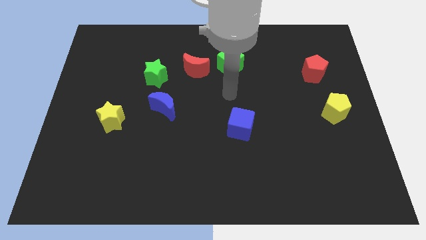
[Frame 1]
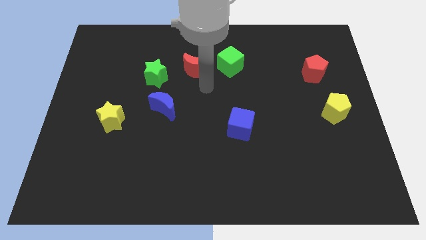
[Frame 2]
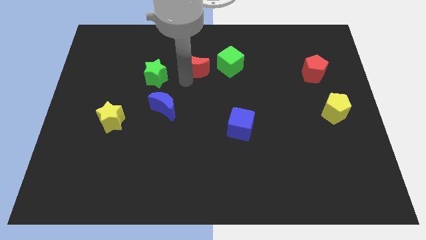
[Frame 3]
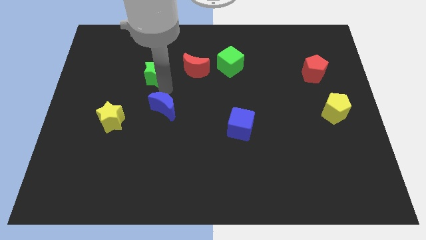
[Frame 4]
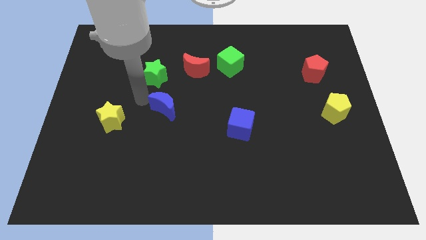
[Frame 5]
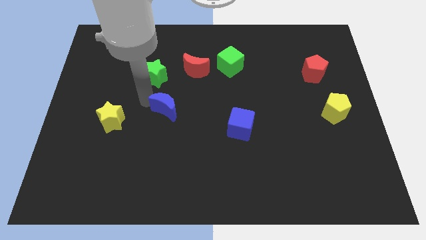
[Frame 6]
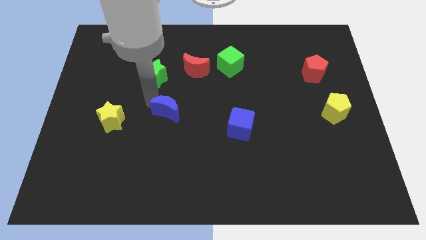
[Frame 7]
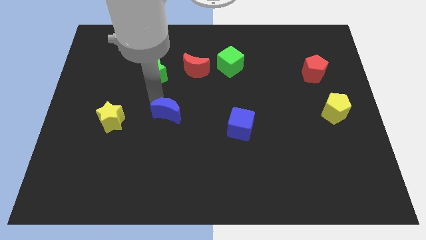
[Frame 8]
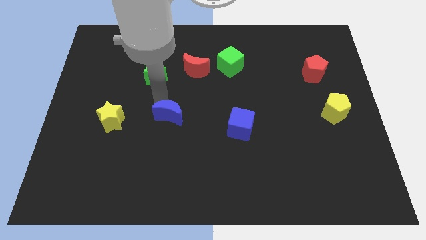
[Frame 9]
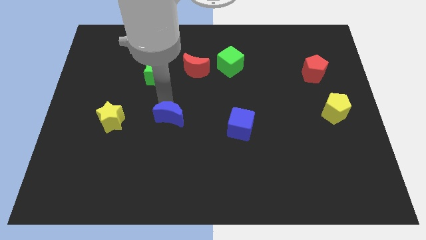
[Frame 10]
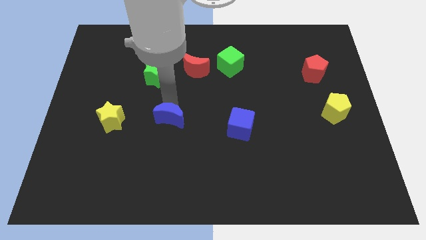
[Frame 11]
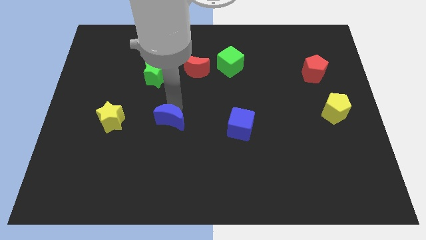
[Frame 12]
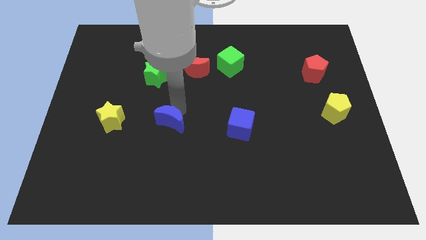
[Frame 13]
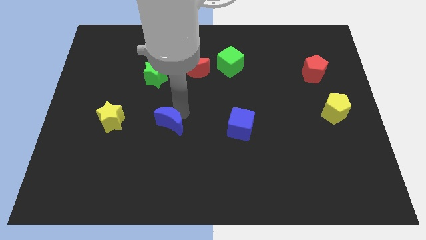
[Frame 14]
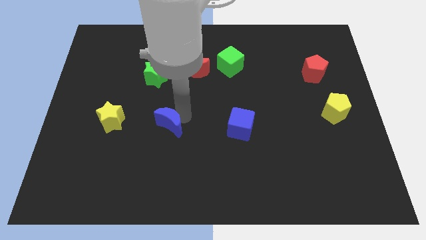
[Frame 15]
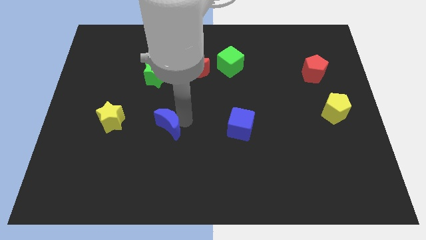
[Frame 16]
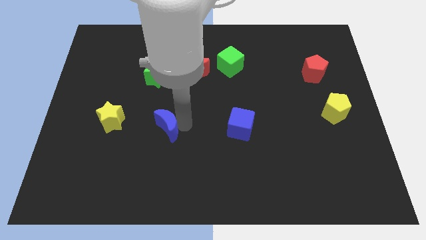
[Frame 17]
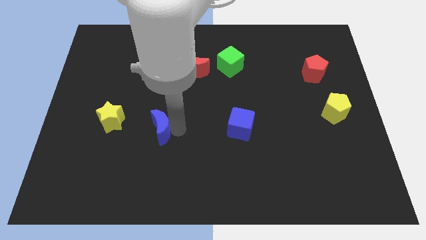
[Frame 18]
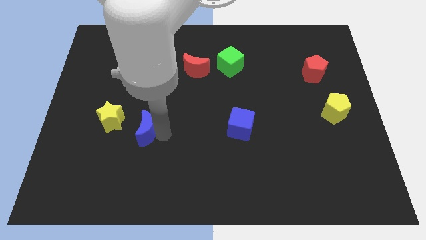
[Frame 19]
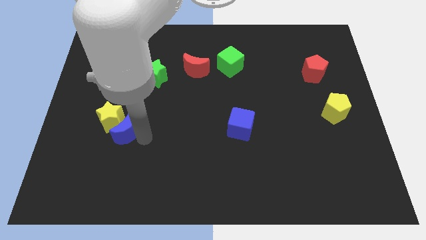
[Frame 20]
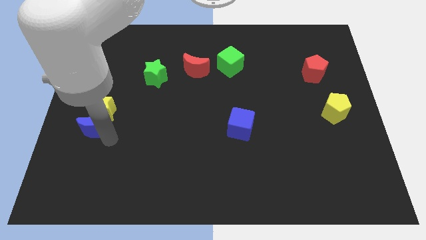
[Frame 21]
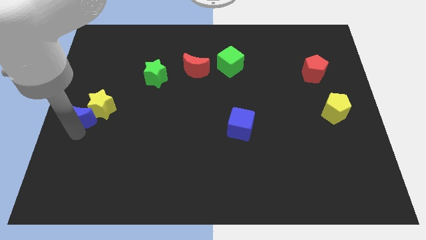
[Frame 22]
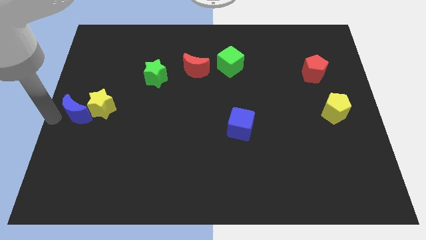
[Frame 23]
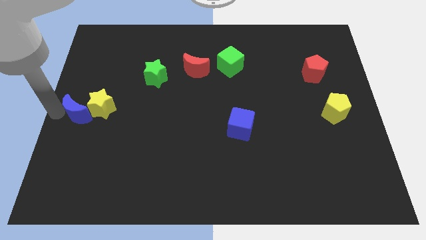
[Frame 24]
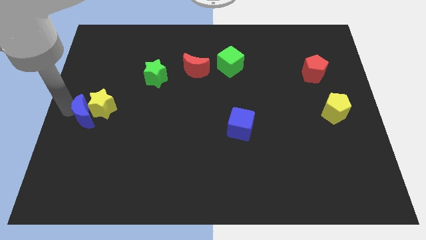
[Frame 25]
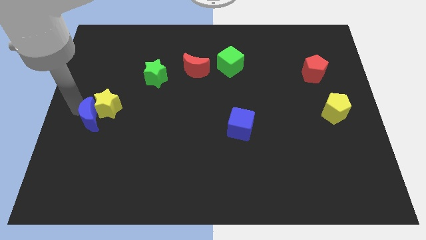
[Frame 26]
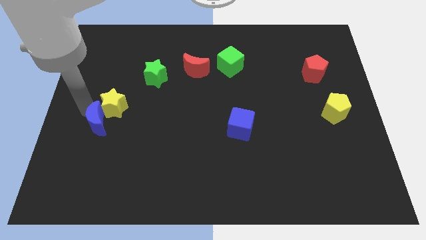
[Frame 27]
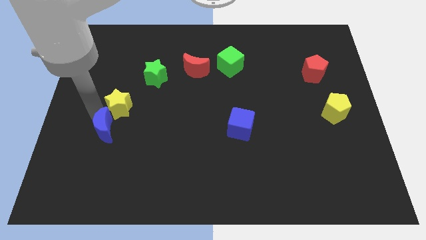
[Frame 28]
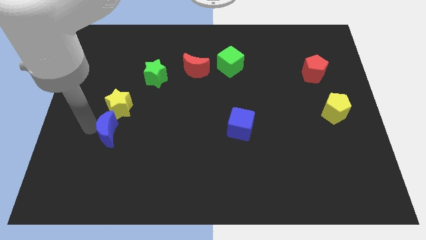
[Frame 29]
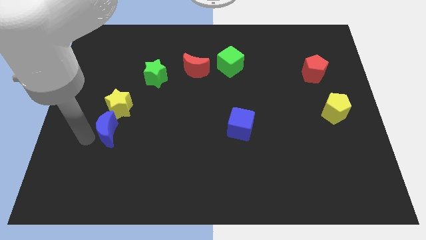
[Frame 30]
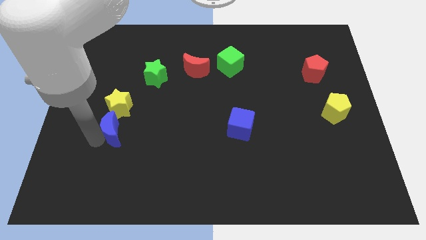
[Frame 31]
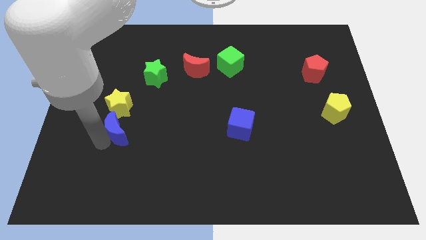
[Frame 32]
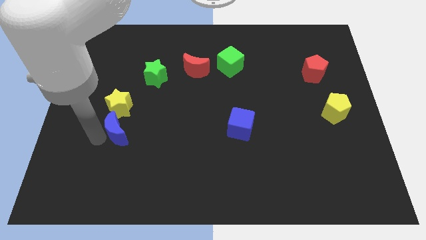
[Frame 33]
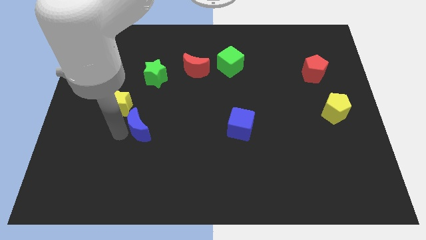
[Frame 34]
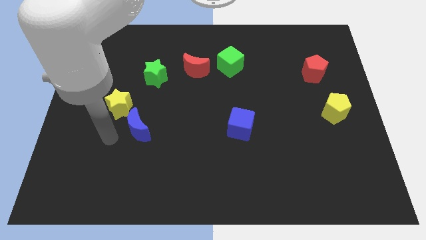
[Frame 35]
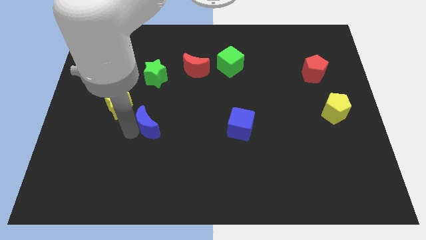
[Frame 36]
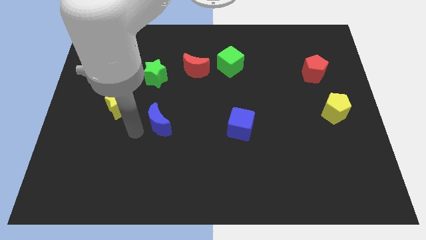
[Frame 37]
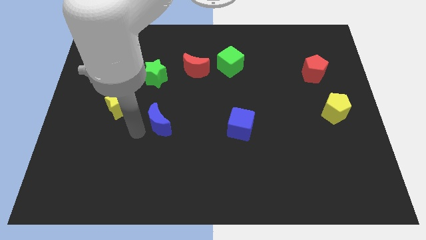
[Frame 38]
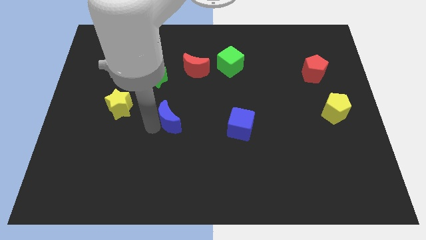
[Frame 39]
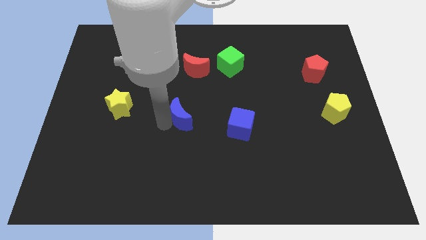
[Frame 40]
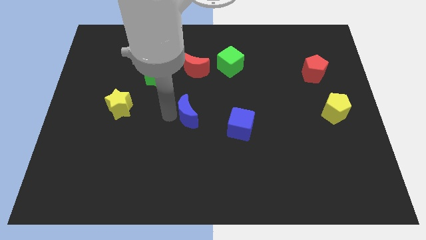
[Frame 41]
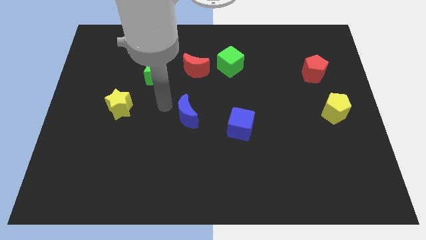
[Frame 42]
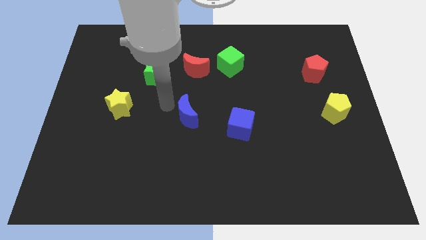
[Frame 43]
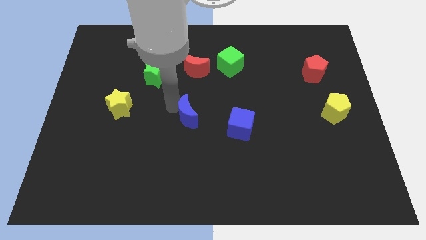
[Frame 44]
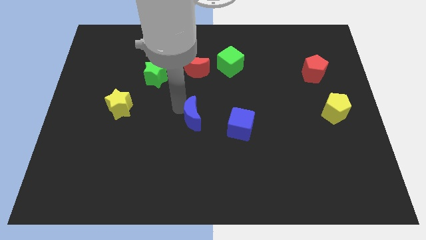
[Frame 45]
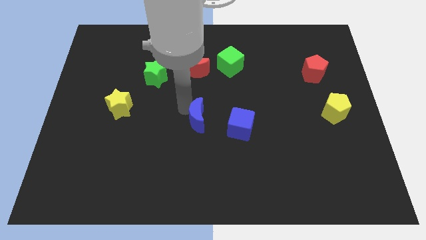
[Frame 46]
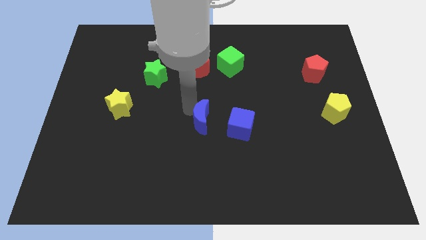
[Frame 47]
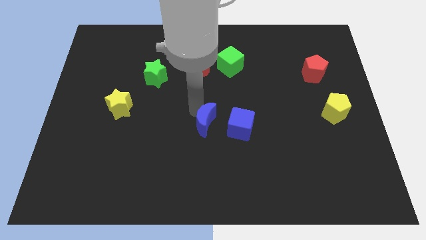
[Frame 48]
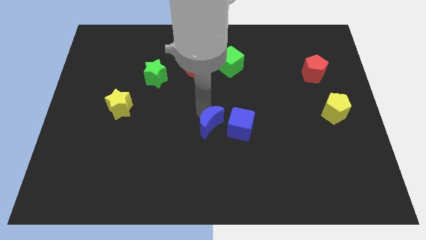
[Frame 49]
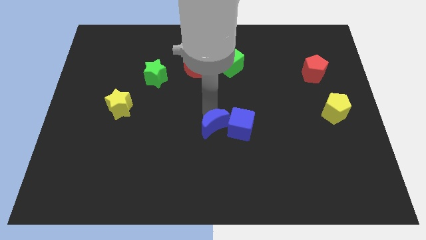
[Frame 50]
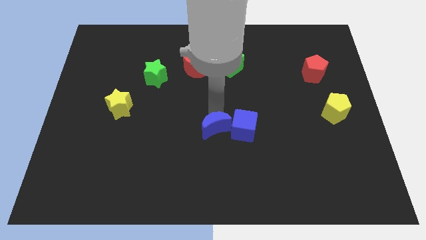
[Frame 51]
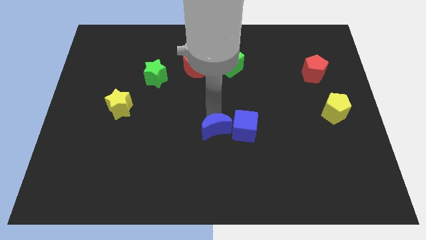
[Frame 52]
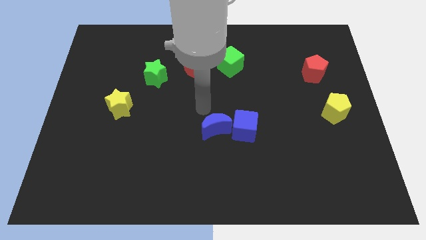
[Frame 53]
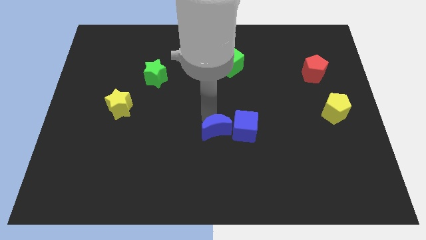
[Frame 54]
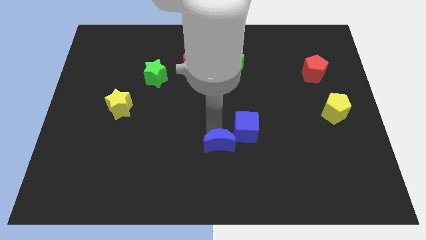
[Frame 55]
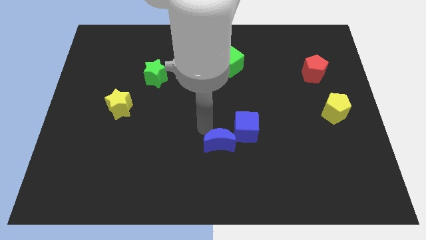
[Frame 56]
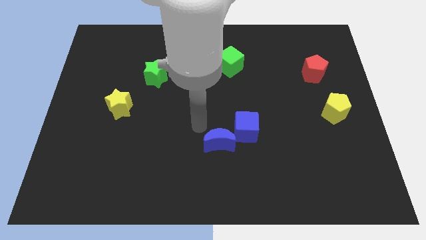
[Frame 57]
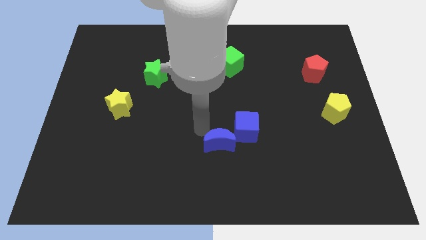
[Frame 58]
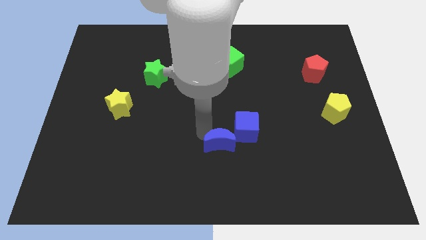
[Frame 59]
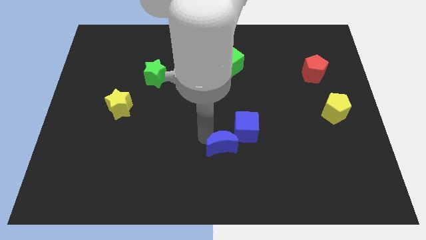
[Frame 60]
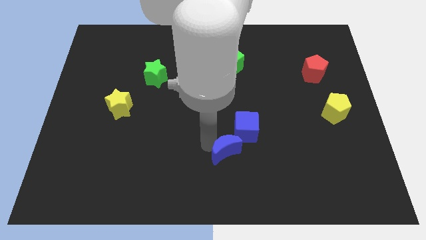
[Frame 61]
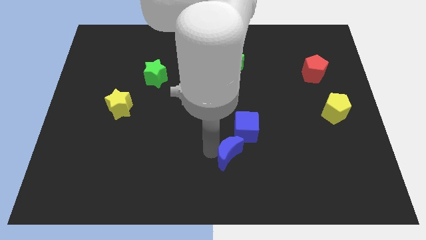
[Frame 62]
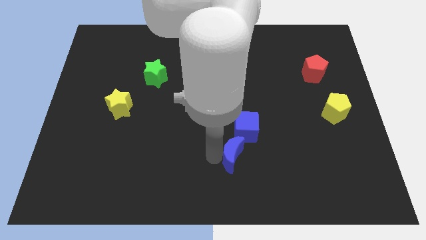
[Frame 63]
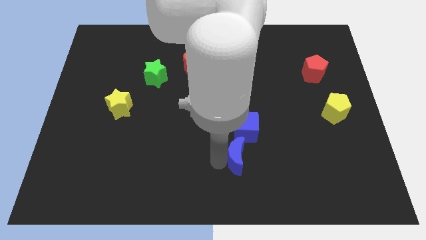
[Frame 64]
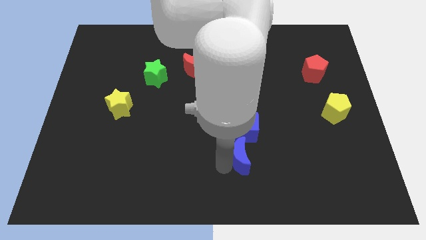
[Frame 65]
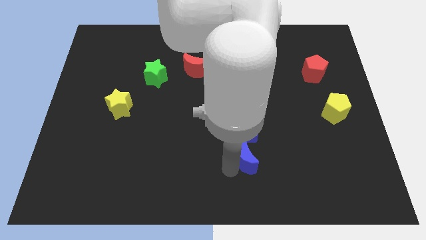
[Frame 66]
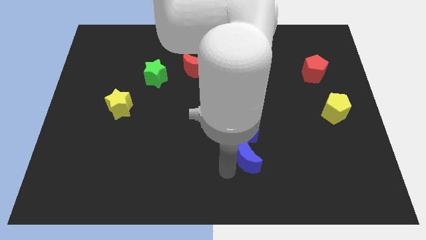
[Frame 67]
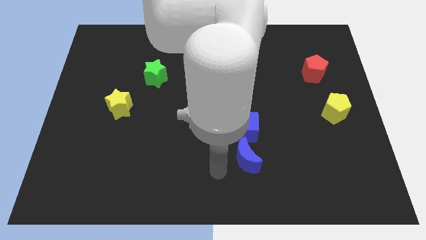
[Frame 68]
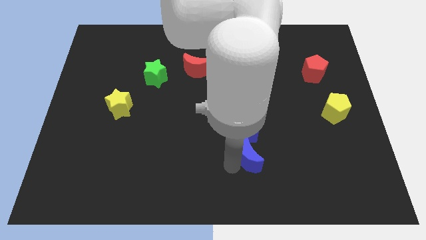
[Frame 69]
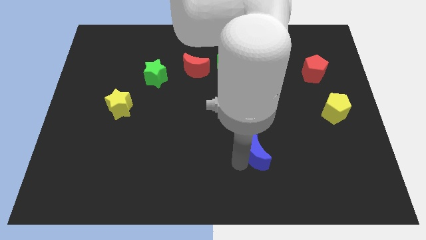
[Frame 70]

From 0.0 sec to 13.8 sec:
push the blue moon diagonally down and to the right of the blue cube
